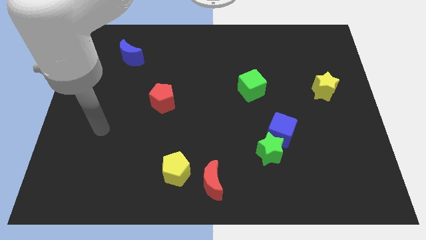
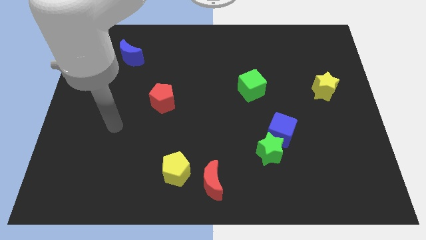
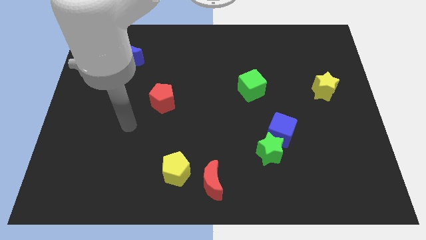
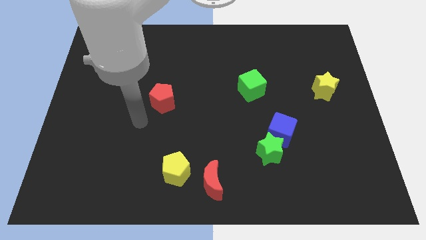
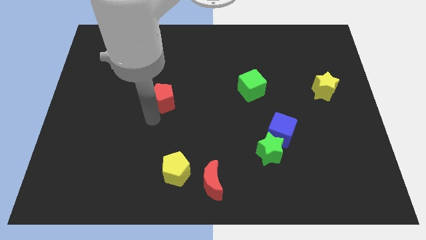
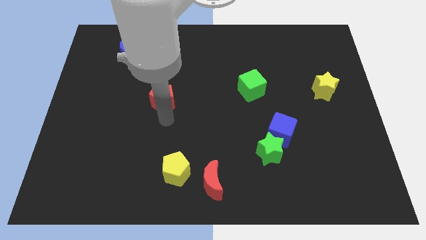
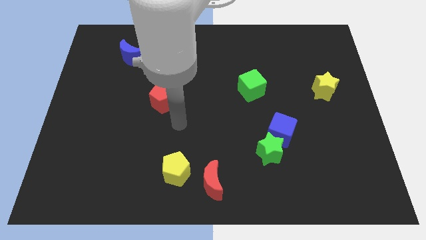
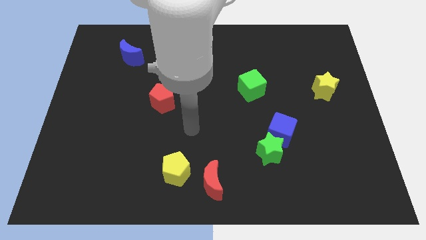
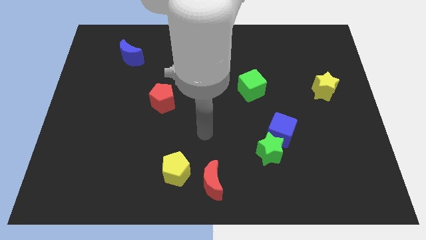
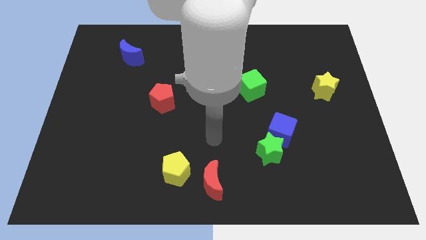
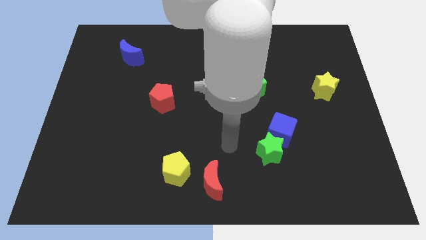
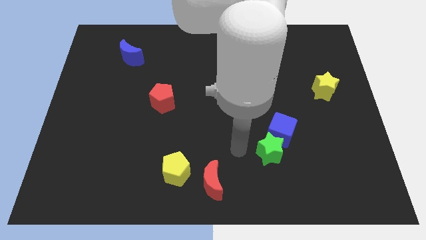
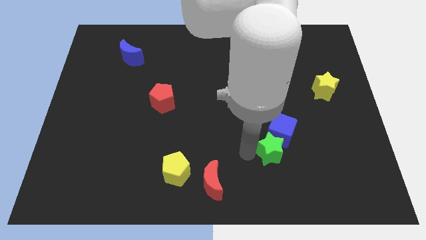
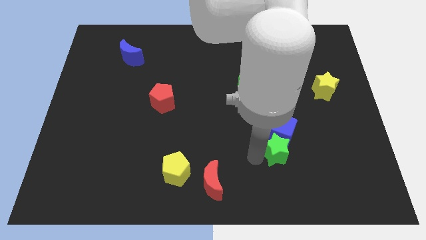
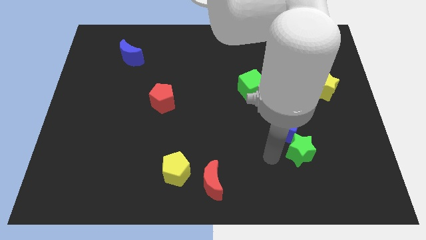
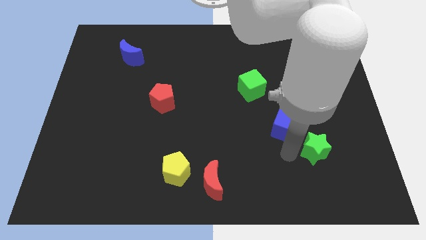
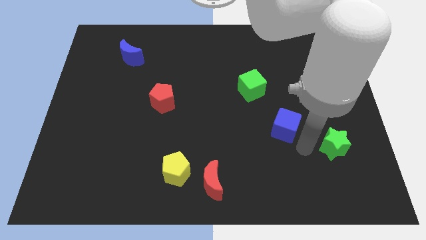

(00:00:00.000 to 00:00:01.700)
pull the blue cube apart from the green star

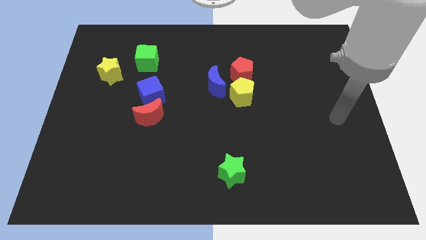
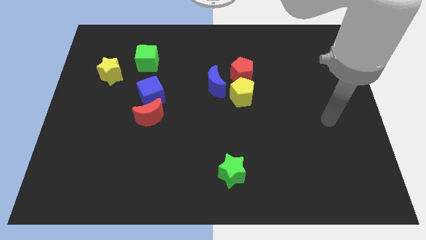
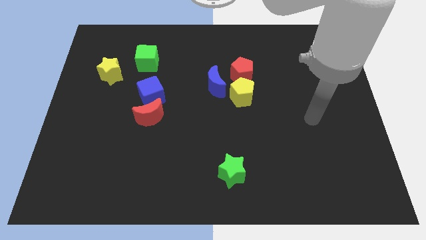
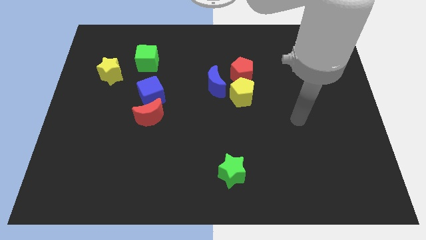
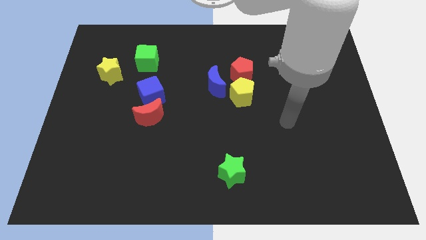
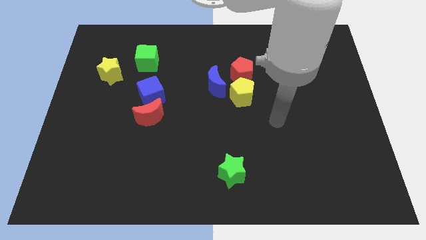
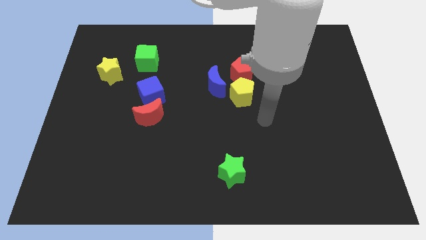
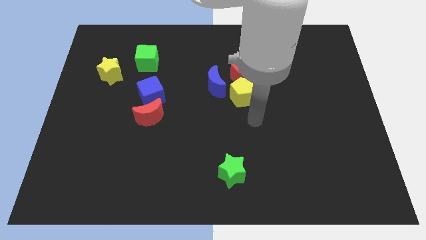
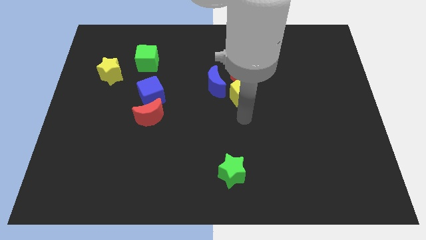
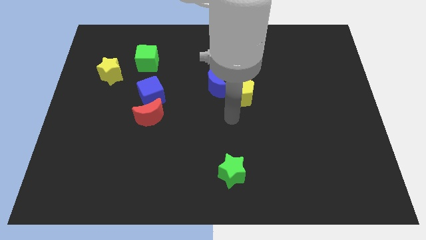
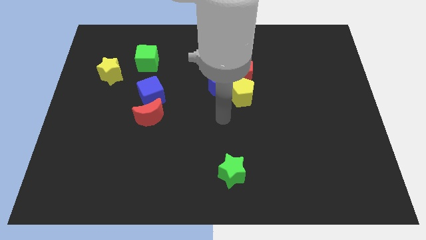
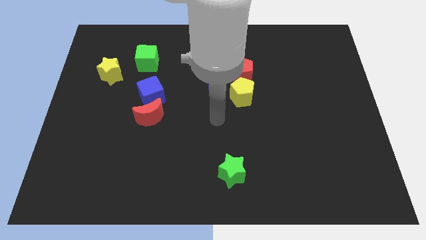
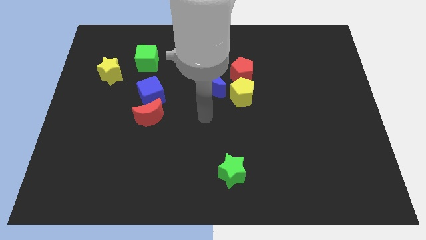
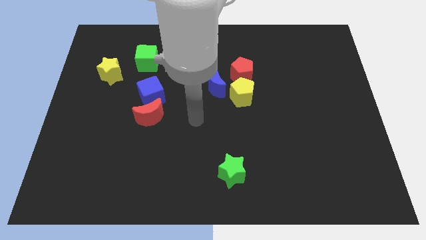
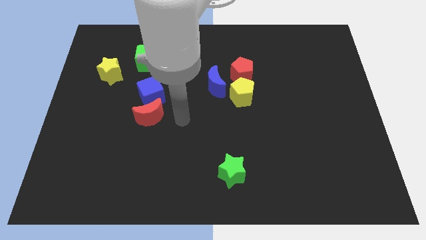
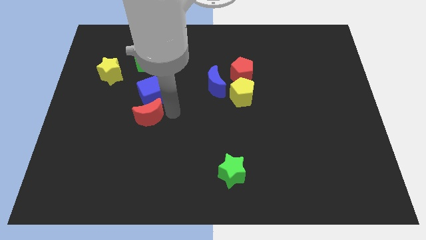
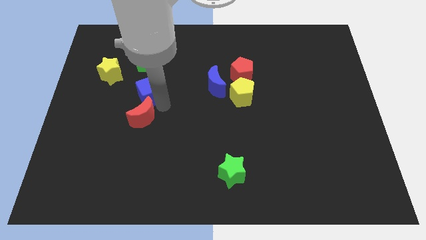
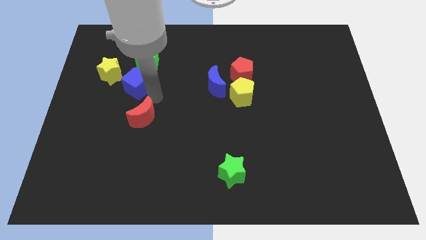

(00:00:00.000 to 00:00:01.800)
pull the red moon apart from the blue cube

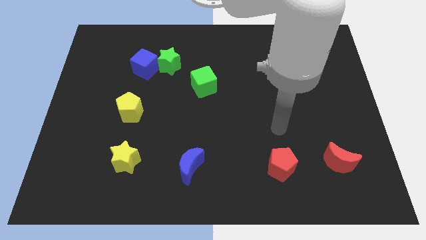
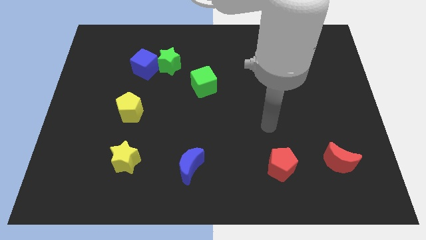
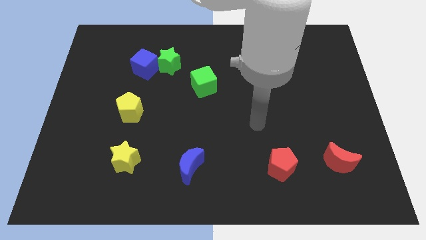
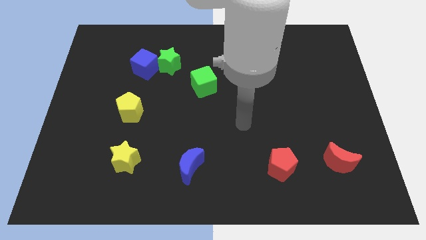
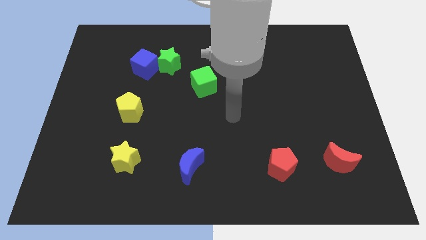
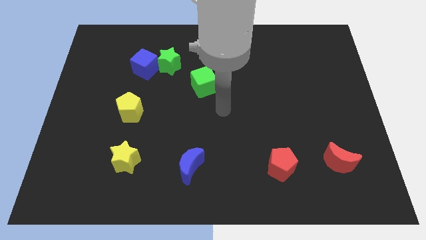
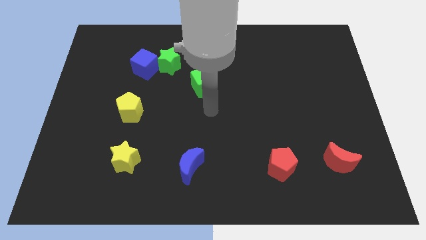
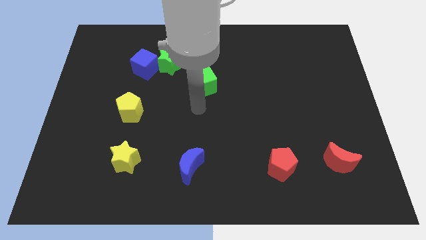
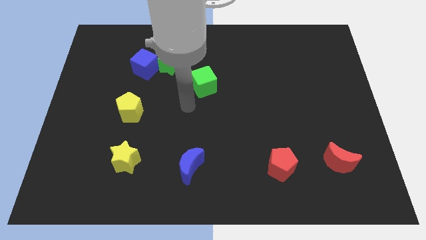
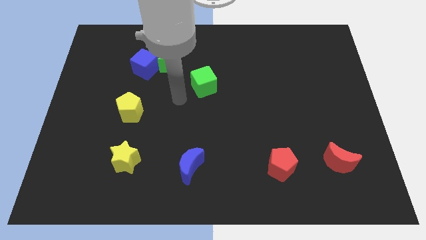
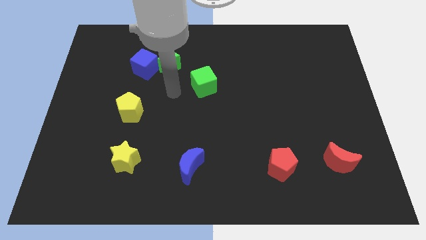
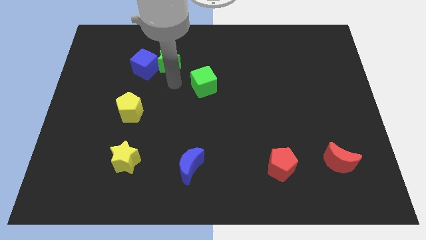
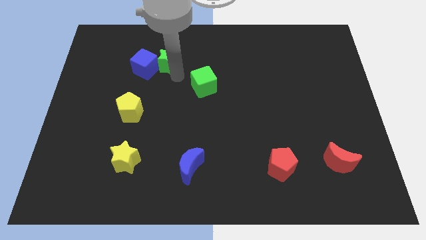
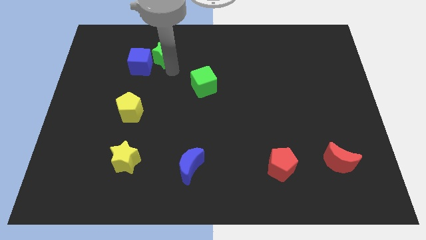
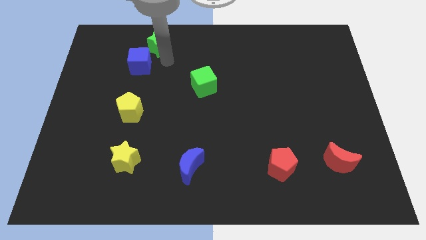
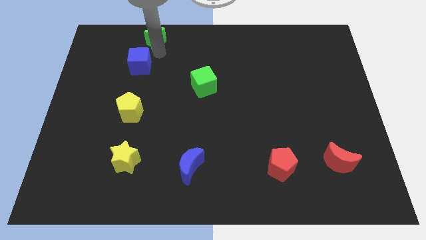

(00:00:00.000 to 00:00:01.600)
move the blue cube away from the green star

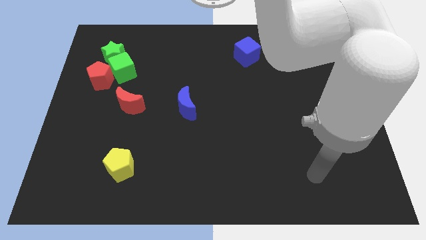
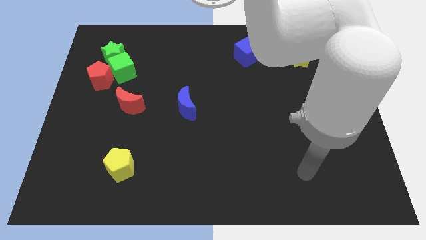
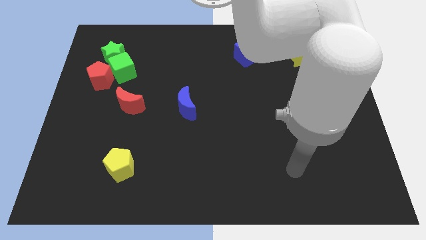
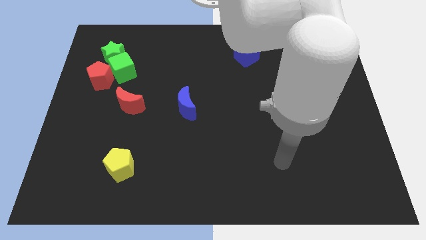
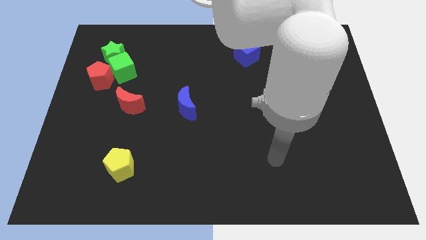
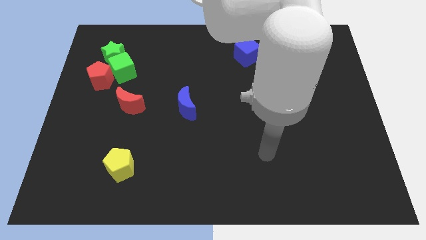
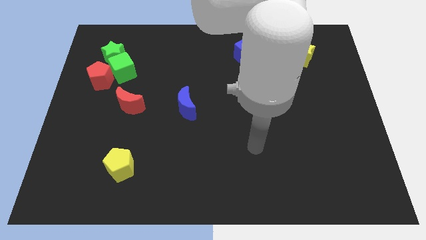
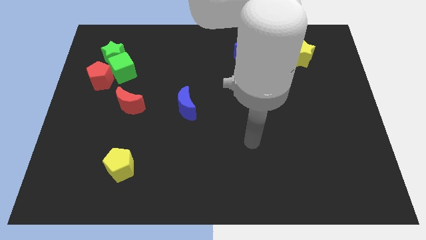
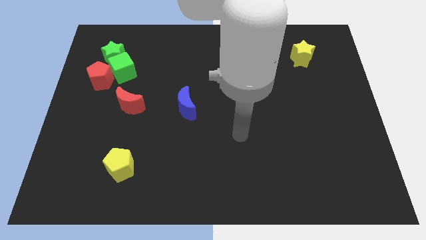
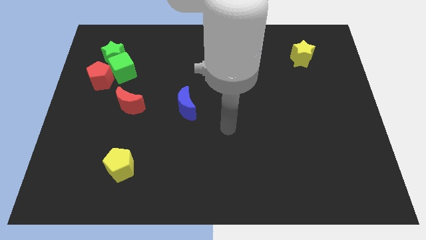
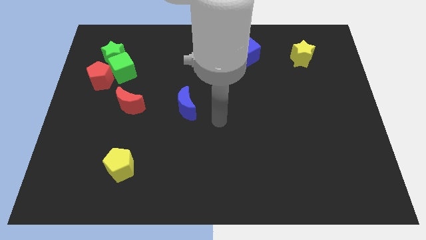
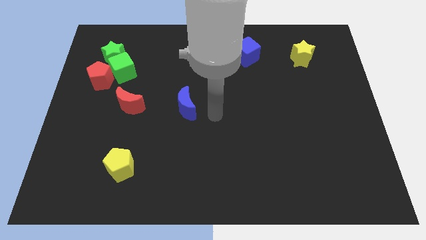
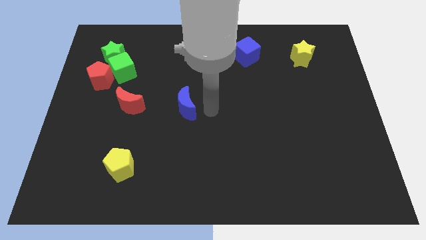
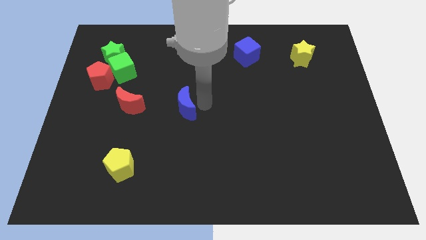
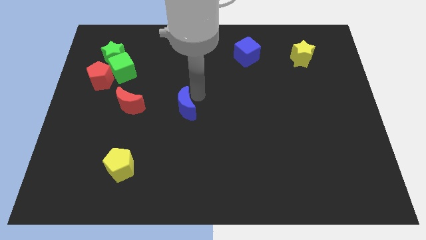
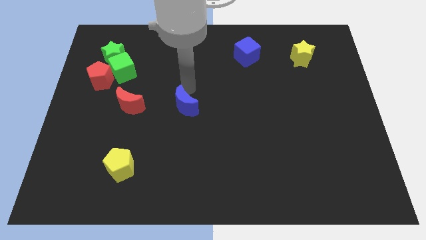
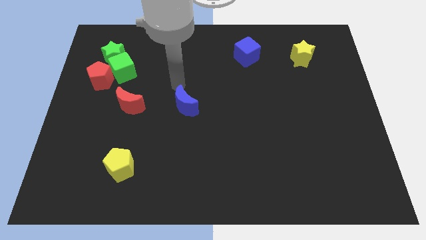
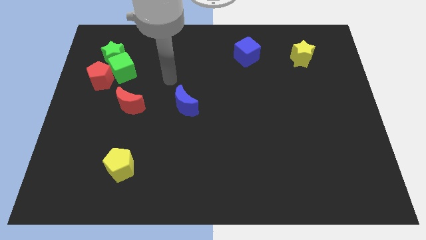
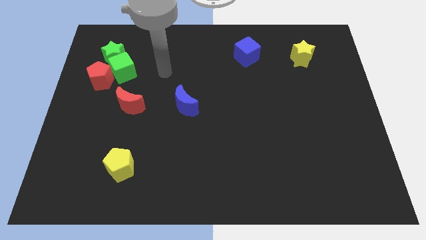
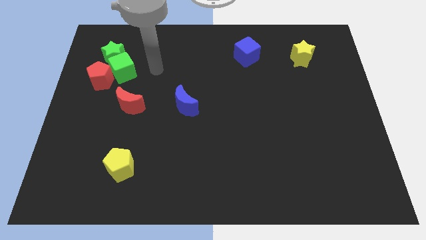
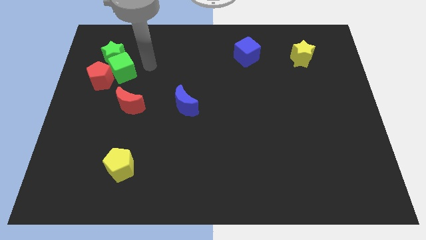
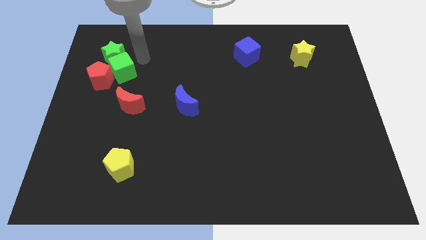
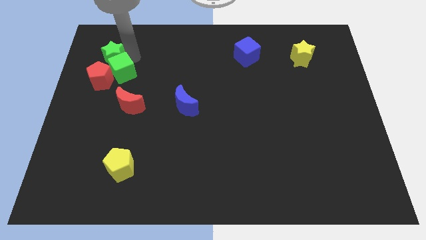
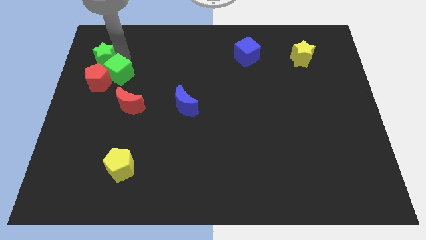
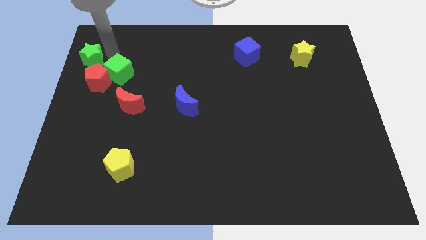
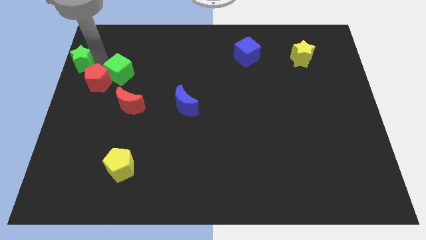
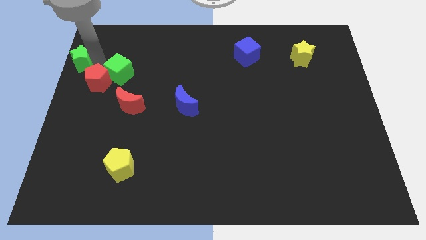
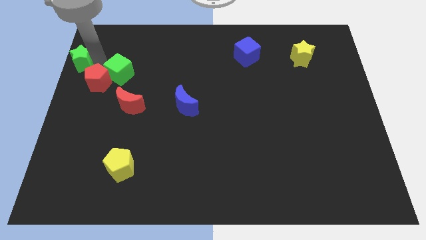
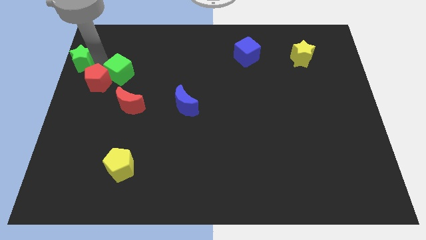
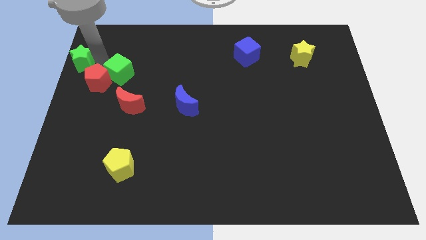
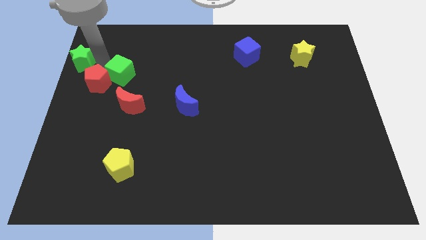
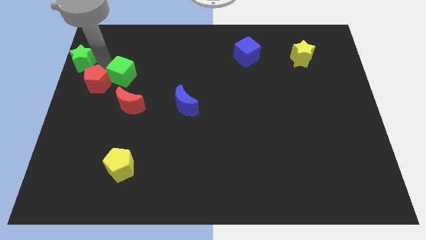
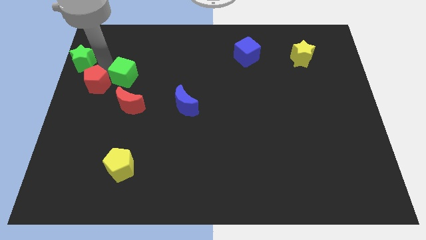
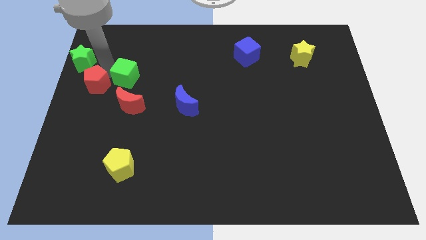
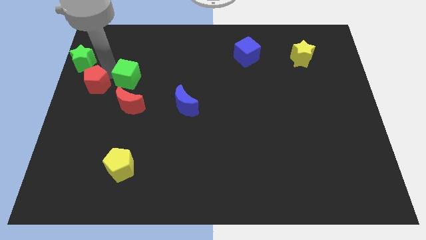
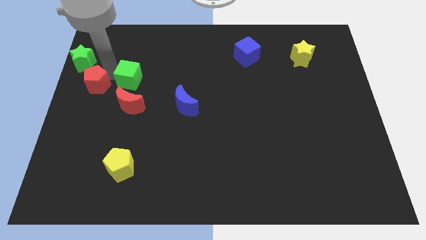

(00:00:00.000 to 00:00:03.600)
separate the green cube from the green star and red pentagon

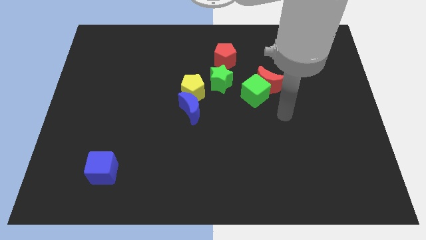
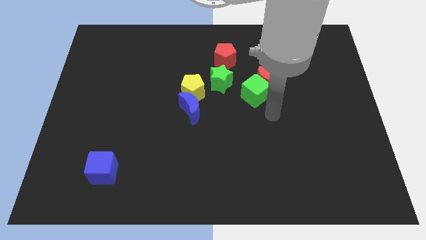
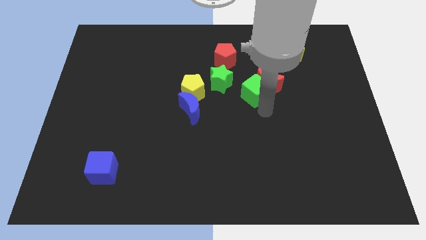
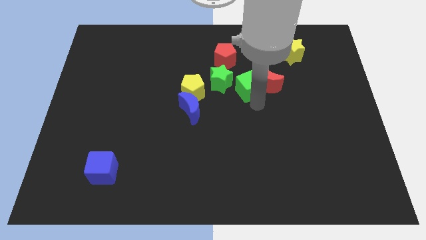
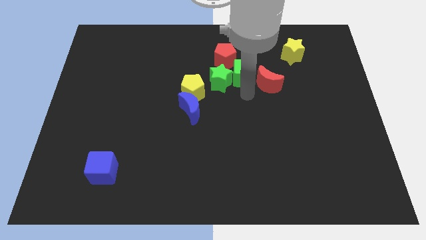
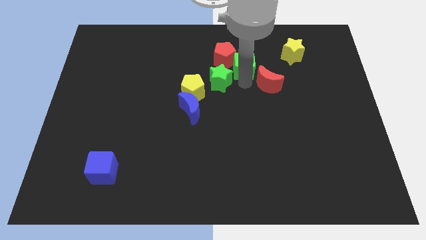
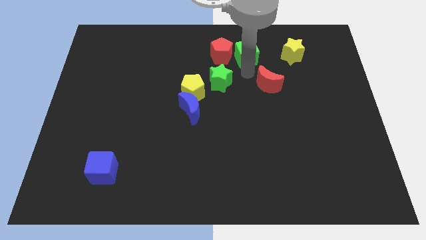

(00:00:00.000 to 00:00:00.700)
separate the red moon from the green cube
